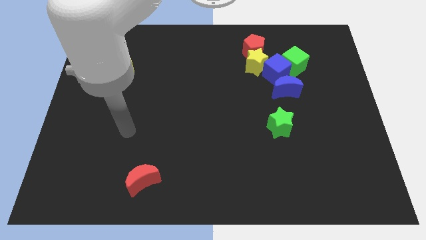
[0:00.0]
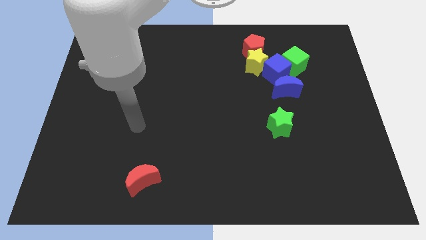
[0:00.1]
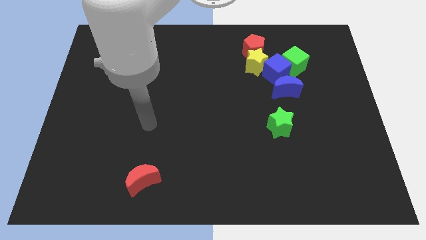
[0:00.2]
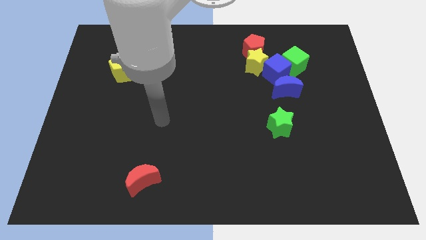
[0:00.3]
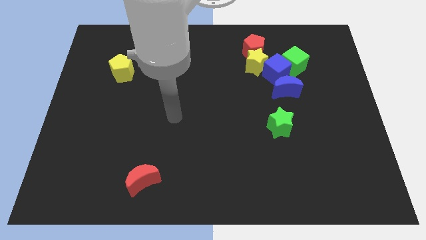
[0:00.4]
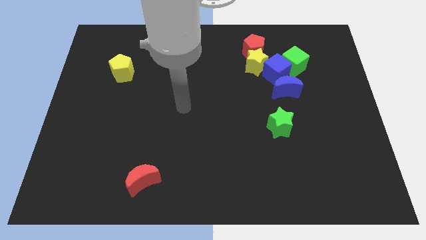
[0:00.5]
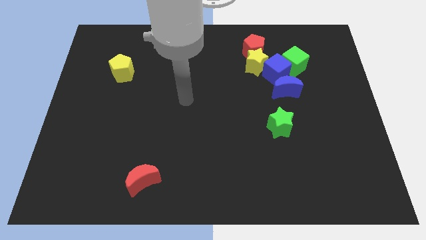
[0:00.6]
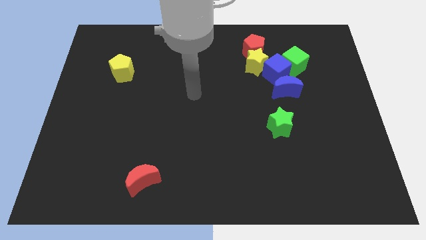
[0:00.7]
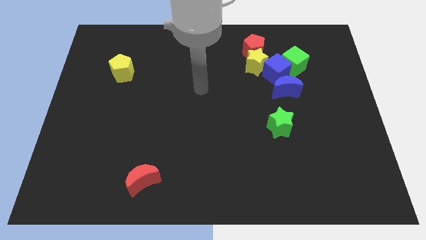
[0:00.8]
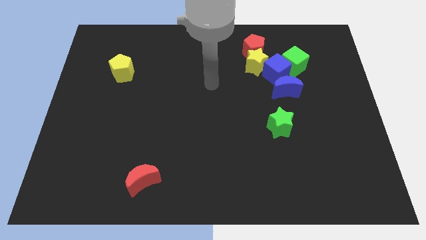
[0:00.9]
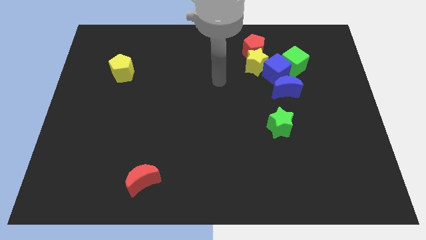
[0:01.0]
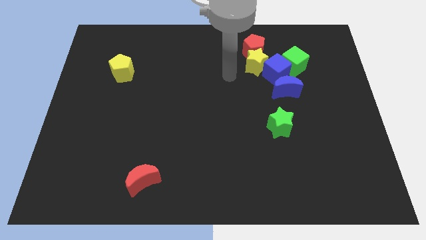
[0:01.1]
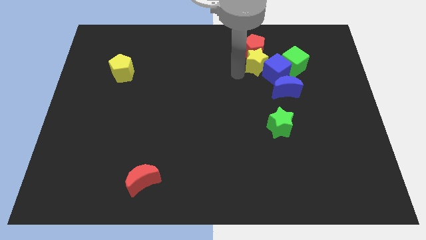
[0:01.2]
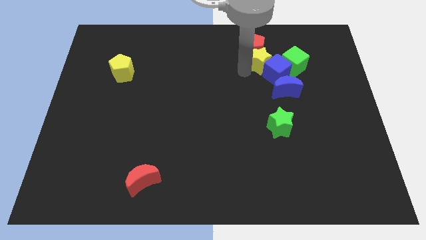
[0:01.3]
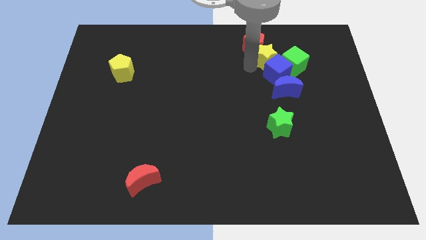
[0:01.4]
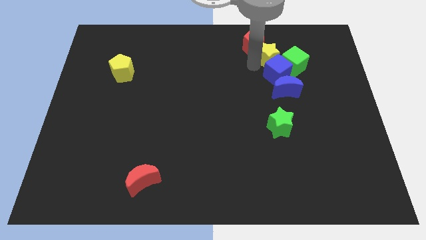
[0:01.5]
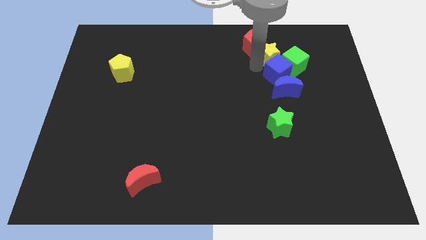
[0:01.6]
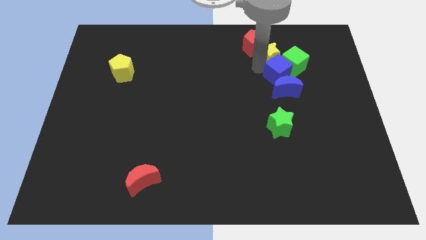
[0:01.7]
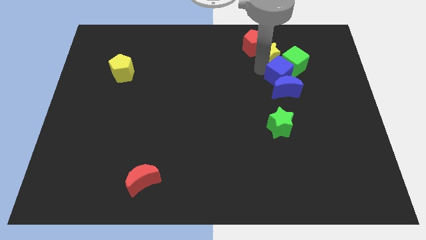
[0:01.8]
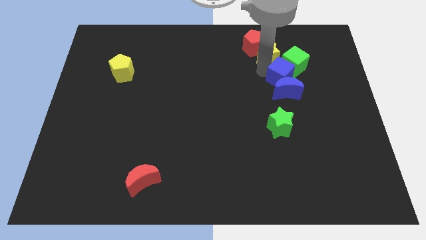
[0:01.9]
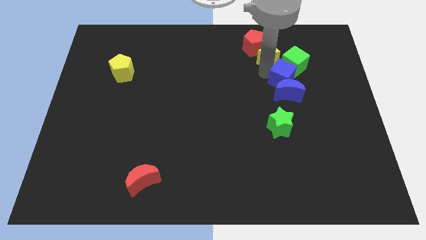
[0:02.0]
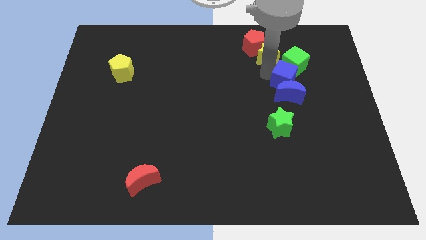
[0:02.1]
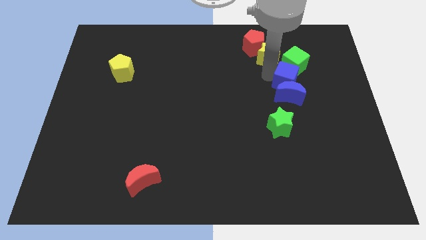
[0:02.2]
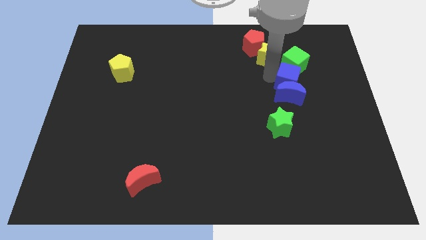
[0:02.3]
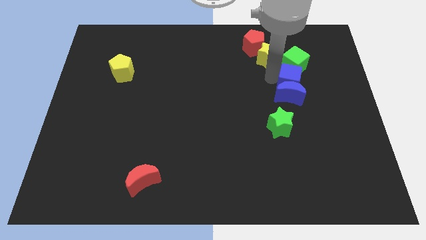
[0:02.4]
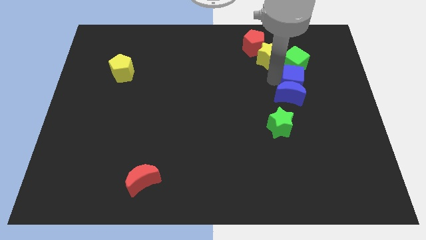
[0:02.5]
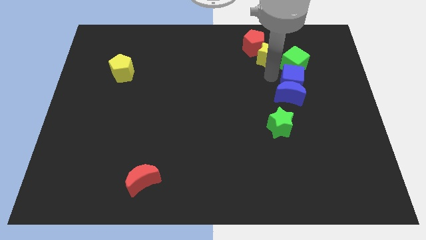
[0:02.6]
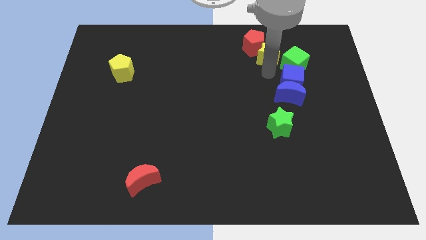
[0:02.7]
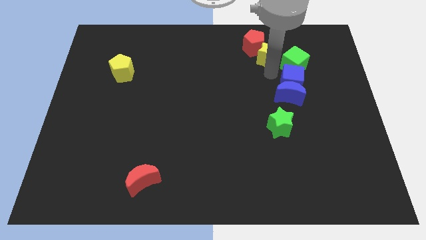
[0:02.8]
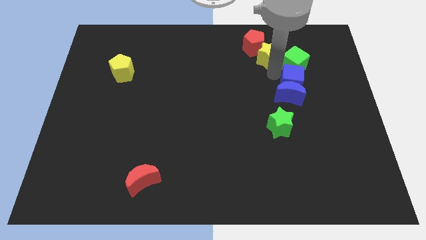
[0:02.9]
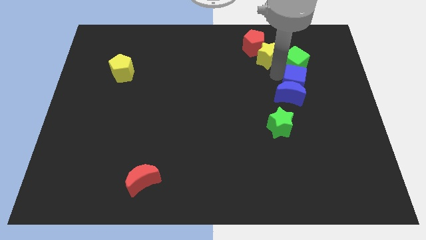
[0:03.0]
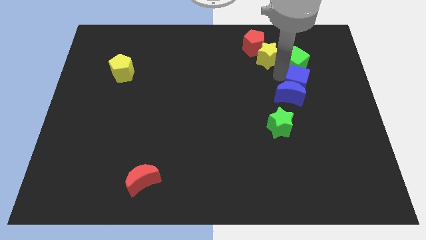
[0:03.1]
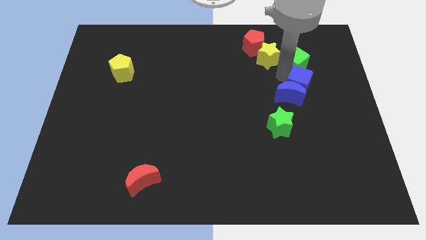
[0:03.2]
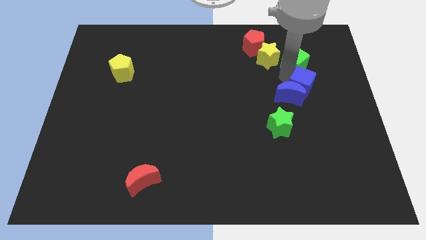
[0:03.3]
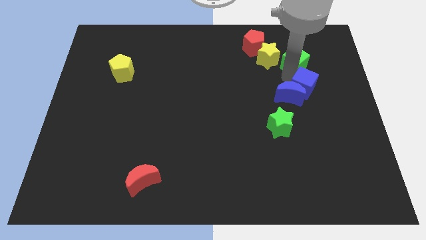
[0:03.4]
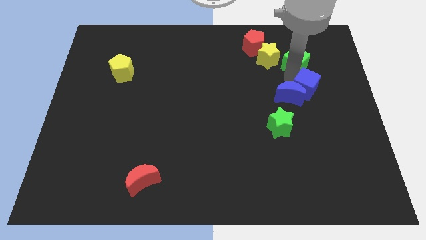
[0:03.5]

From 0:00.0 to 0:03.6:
move the blue cube away from the clump

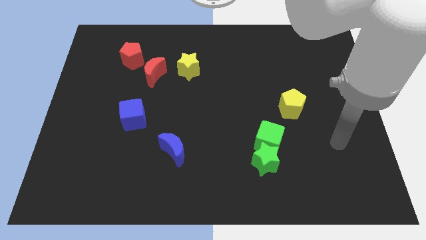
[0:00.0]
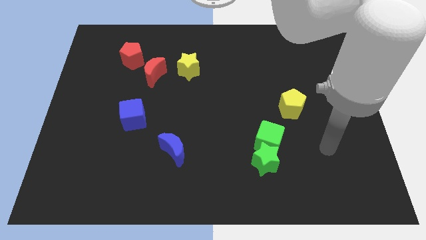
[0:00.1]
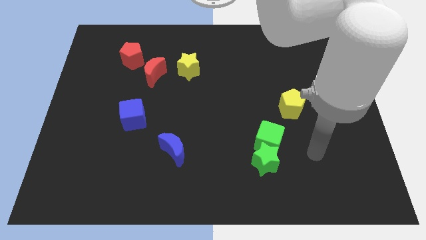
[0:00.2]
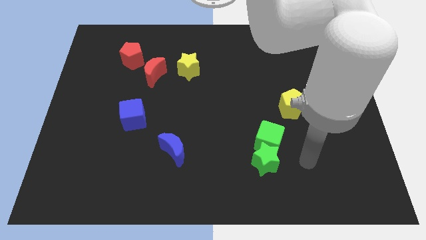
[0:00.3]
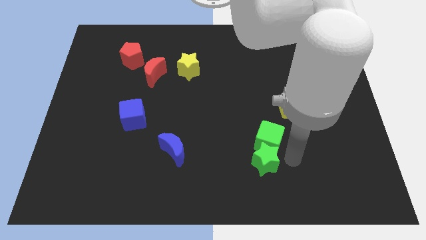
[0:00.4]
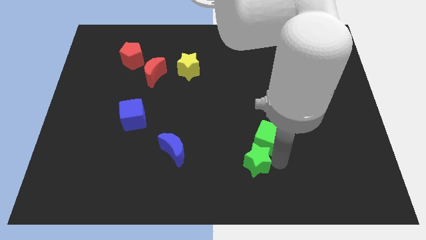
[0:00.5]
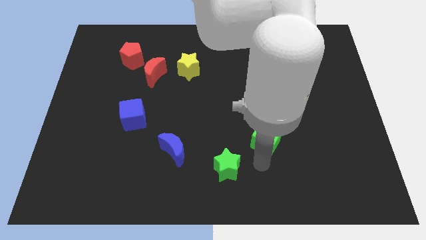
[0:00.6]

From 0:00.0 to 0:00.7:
separate the green cube from the green star

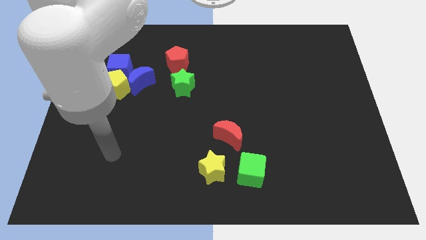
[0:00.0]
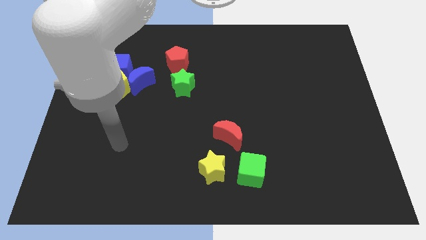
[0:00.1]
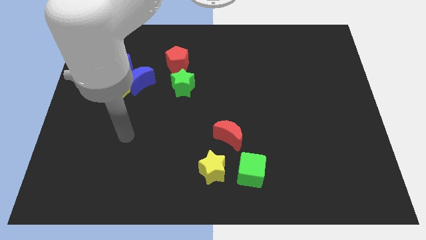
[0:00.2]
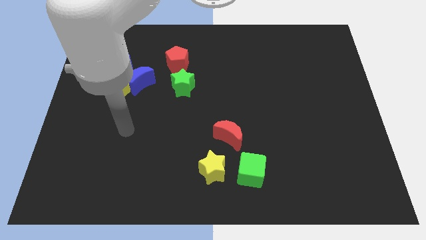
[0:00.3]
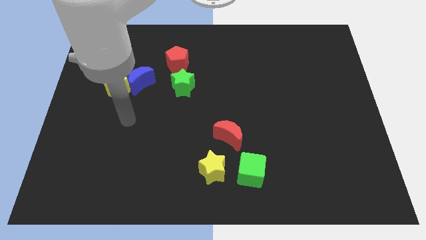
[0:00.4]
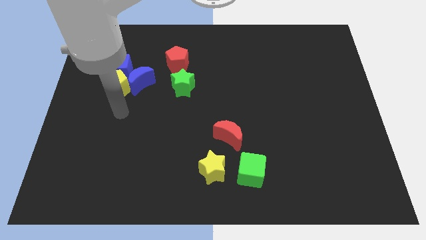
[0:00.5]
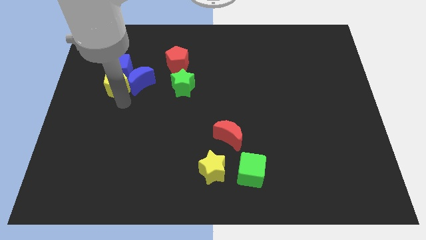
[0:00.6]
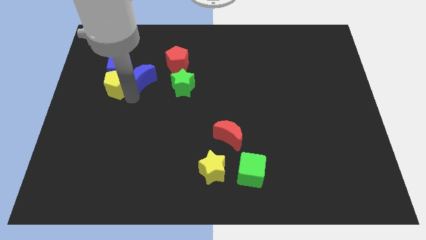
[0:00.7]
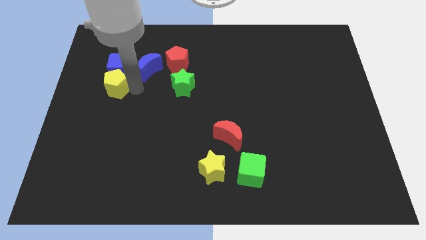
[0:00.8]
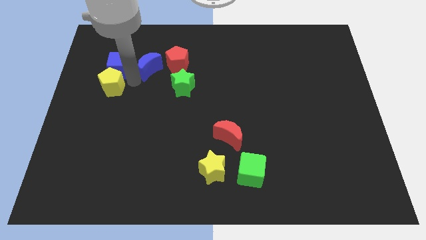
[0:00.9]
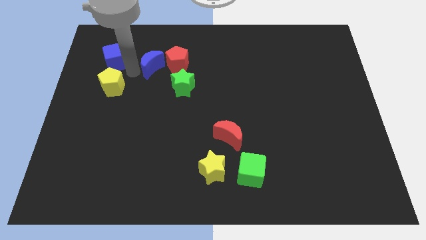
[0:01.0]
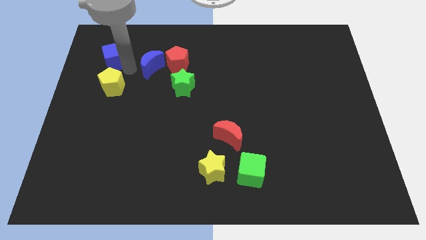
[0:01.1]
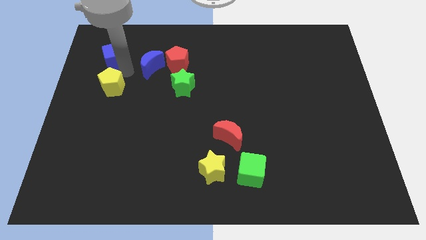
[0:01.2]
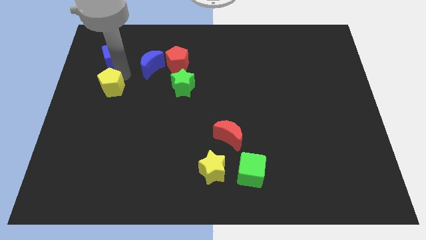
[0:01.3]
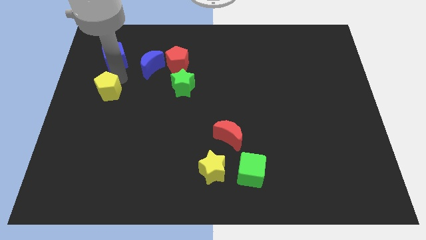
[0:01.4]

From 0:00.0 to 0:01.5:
move the yellow pentagon away from the blue moon and blue cube

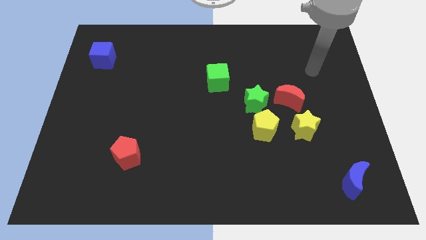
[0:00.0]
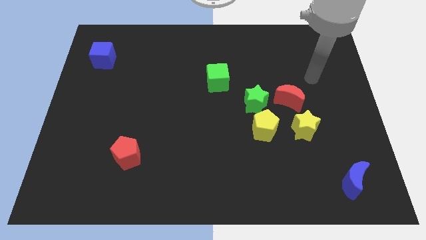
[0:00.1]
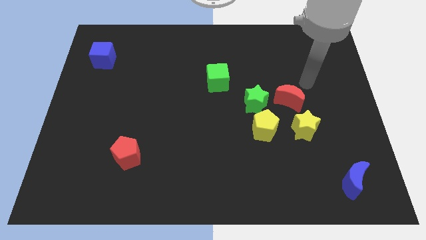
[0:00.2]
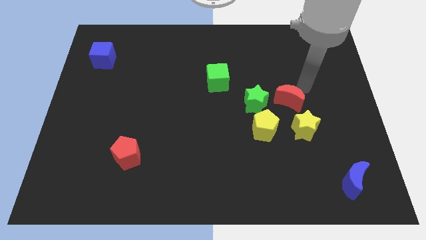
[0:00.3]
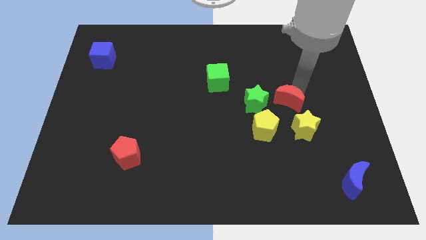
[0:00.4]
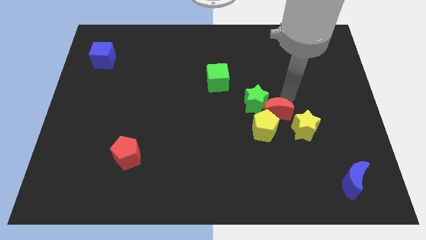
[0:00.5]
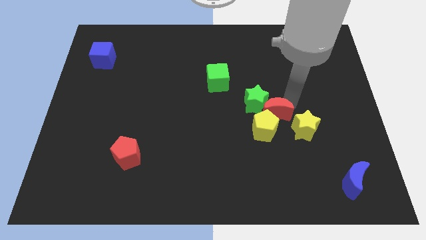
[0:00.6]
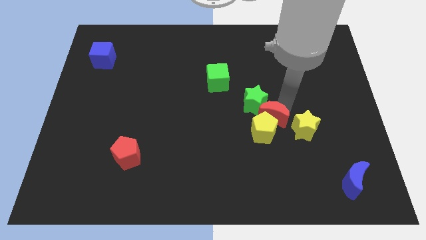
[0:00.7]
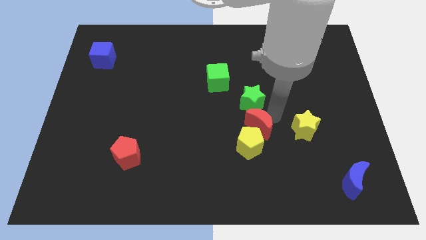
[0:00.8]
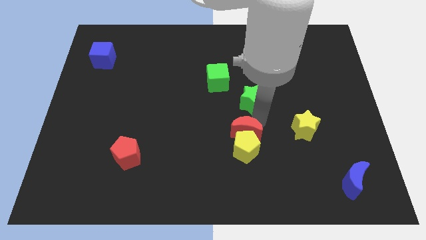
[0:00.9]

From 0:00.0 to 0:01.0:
move the green star away from the yellow pentagon and red moon

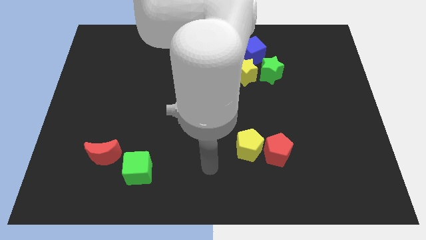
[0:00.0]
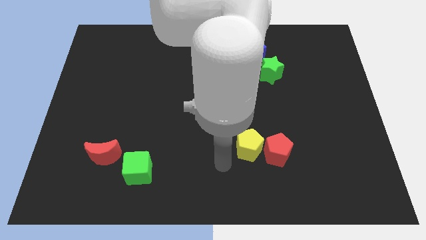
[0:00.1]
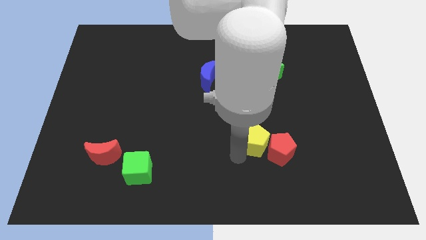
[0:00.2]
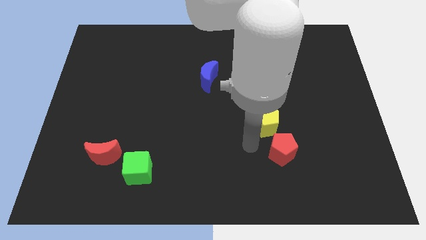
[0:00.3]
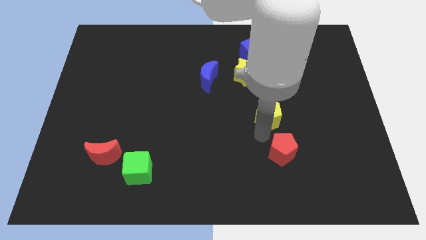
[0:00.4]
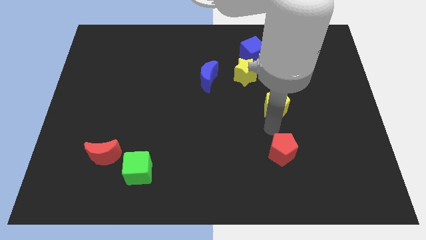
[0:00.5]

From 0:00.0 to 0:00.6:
move the red pentagon away from the yellow pentagon

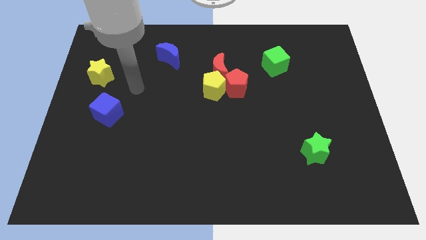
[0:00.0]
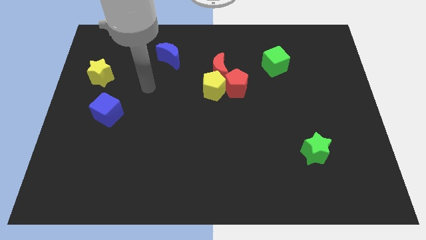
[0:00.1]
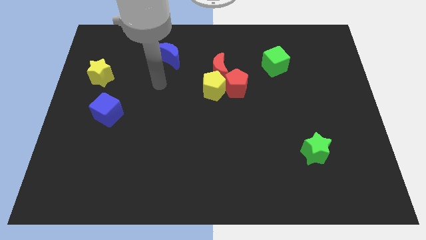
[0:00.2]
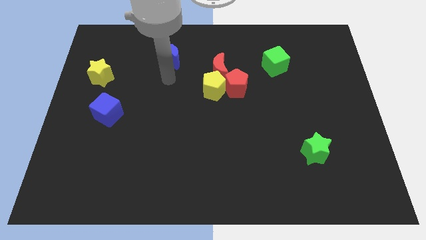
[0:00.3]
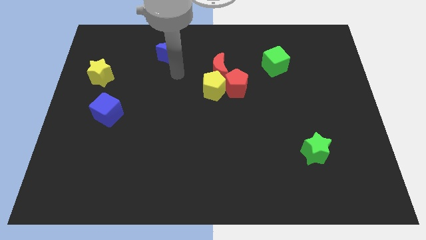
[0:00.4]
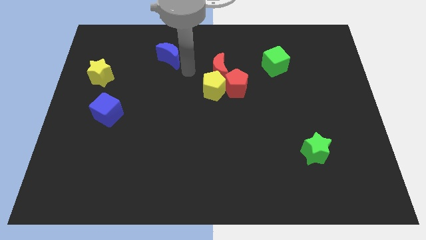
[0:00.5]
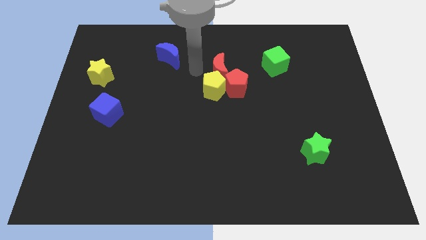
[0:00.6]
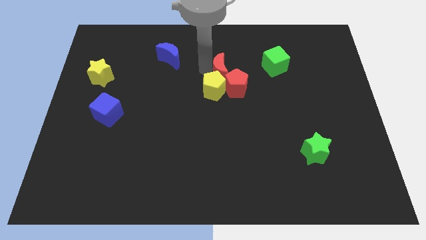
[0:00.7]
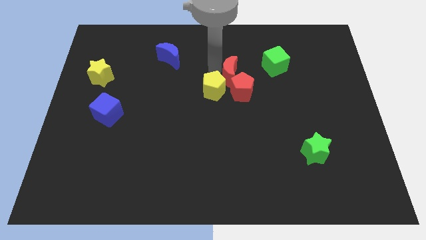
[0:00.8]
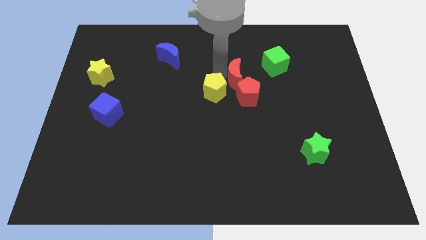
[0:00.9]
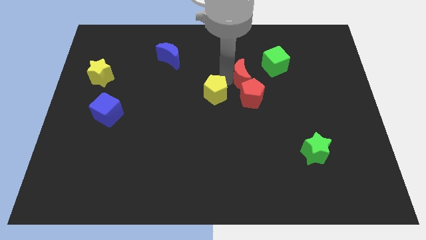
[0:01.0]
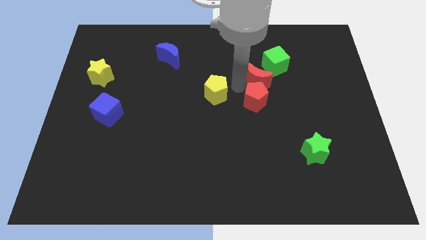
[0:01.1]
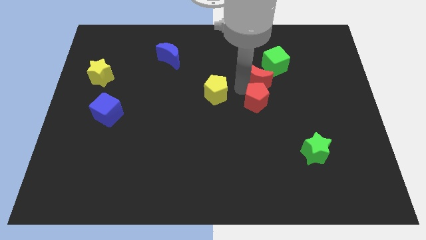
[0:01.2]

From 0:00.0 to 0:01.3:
pull the yellow pentagon apart from the red pentagon and red moon

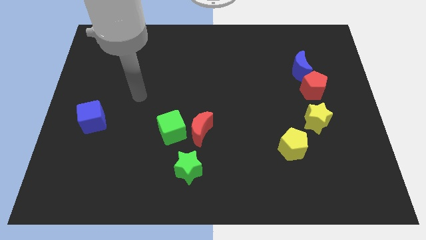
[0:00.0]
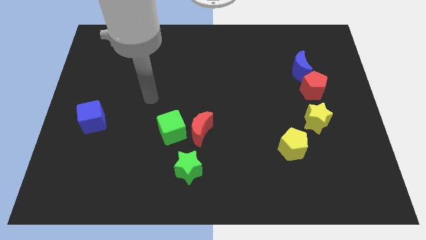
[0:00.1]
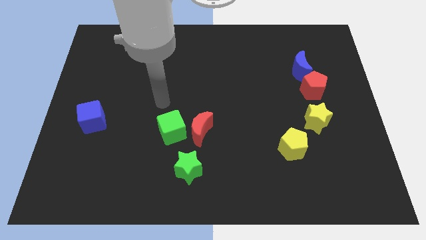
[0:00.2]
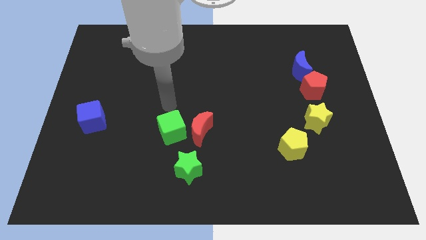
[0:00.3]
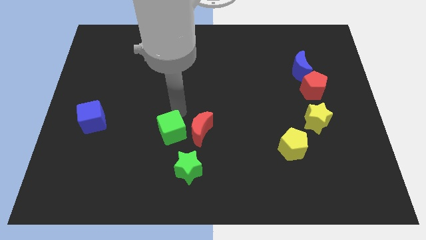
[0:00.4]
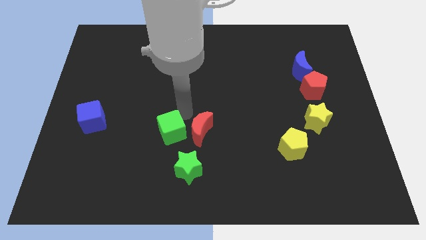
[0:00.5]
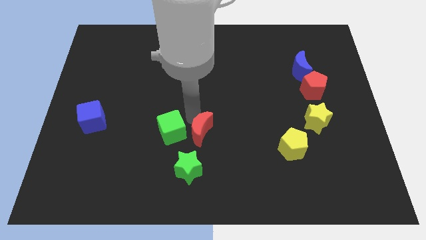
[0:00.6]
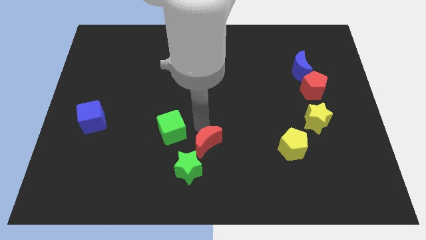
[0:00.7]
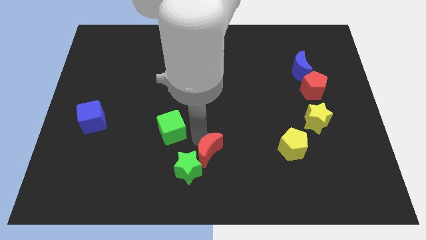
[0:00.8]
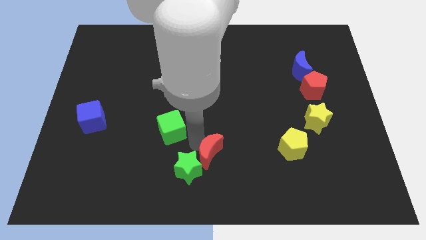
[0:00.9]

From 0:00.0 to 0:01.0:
pull the green cube apart from the red moon
